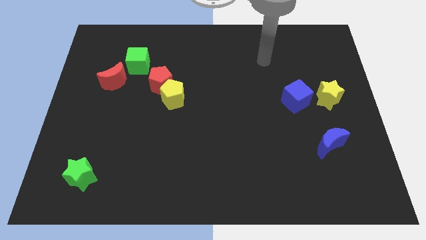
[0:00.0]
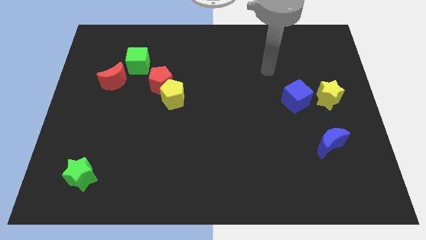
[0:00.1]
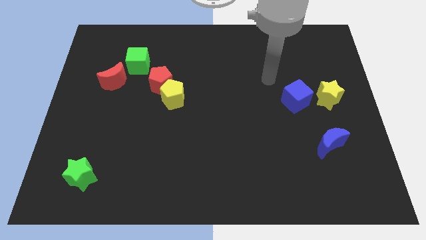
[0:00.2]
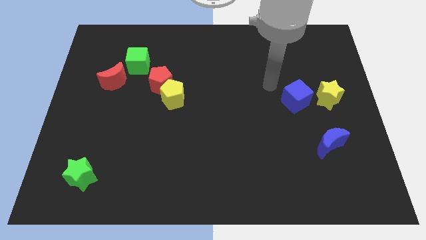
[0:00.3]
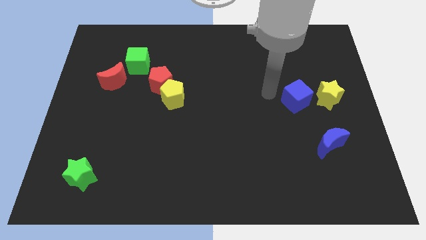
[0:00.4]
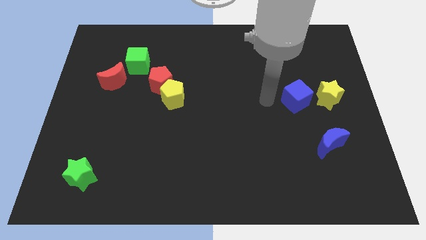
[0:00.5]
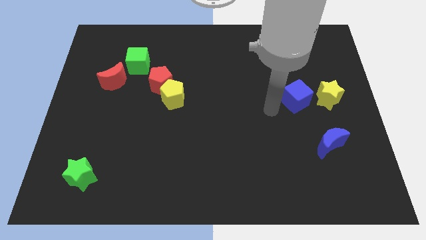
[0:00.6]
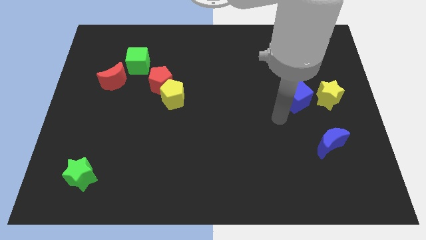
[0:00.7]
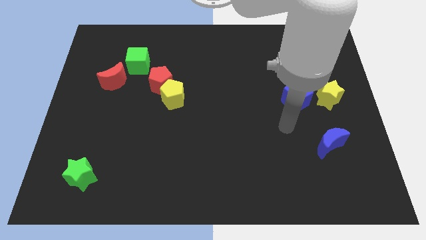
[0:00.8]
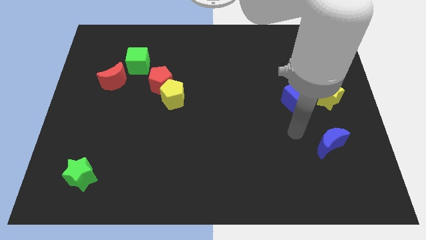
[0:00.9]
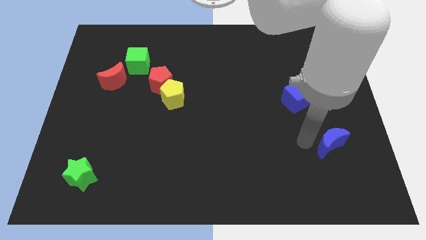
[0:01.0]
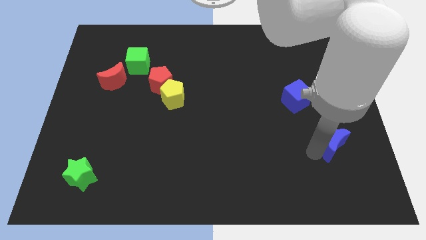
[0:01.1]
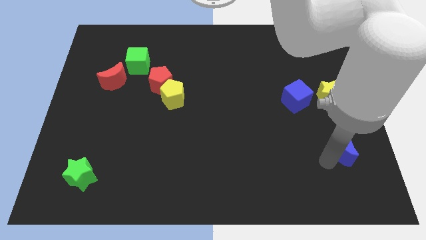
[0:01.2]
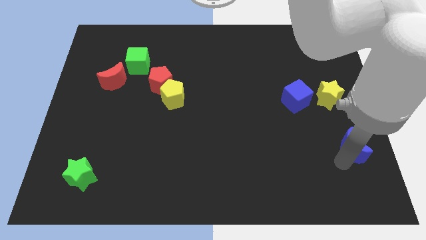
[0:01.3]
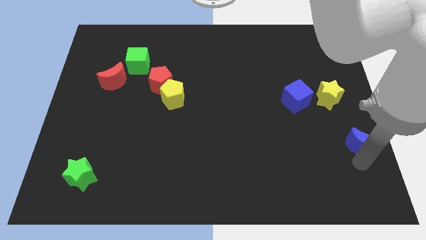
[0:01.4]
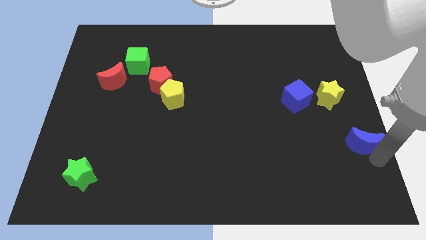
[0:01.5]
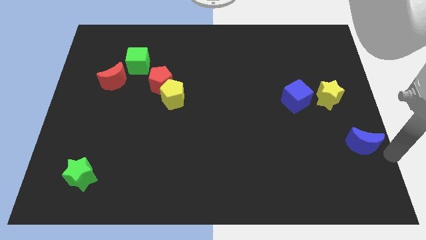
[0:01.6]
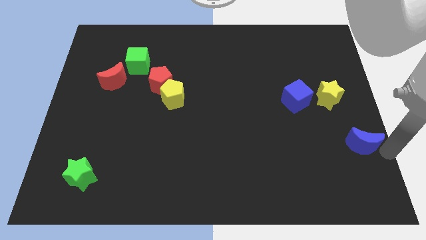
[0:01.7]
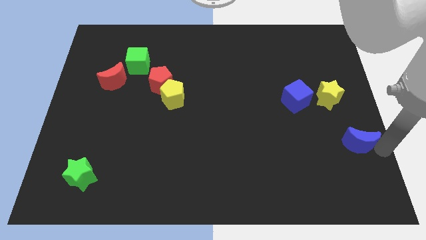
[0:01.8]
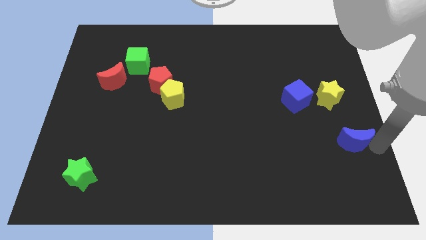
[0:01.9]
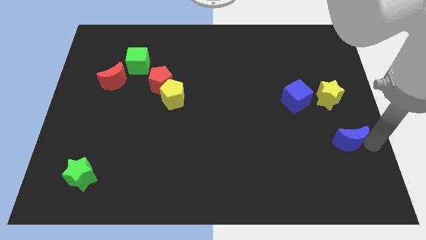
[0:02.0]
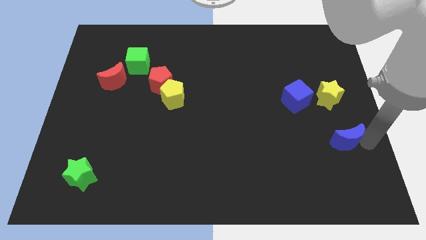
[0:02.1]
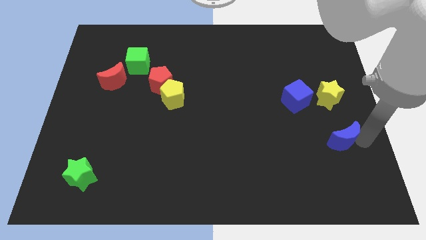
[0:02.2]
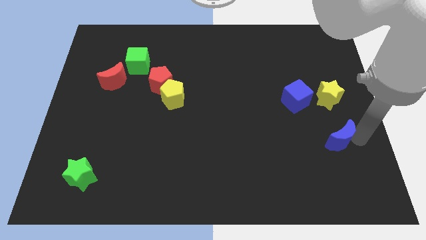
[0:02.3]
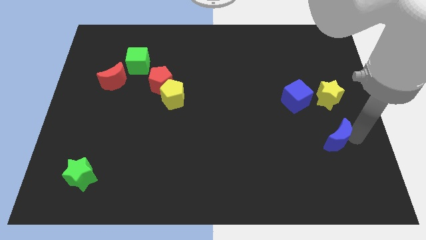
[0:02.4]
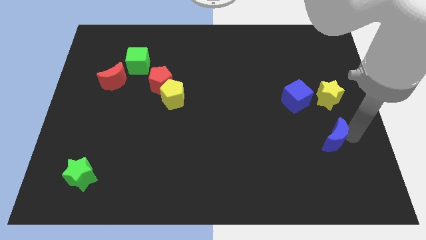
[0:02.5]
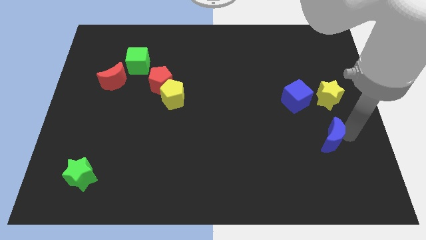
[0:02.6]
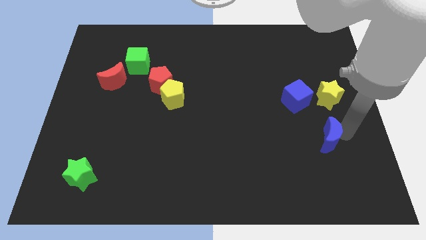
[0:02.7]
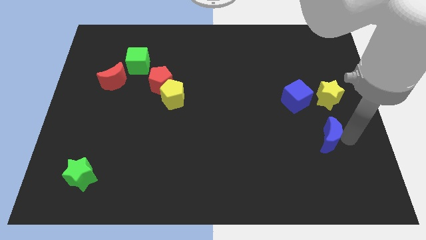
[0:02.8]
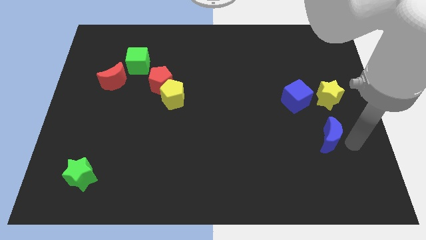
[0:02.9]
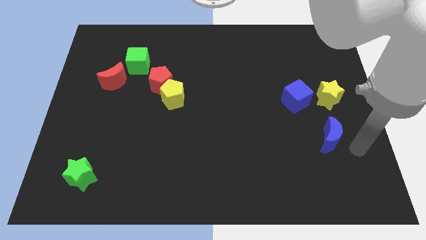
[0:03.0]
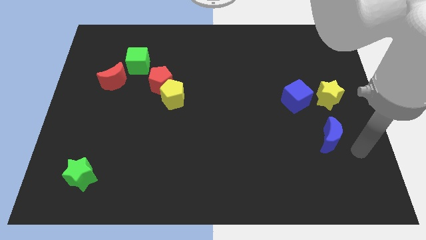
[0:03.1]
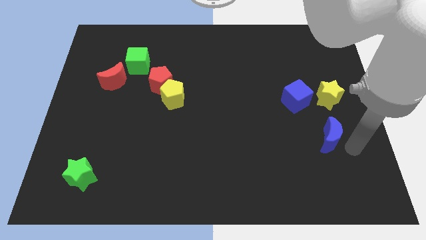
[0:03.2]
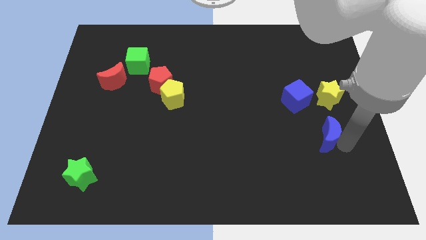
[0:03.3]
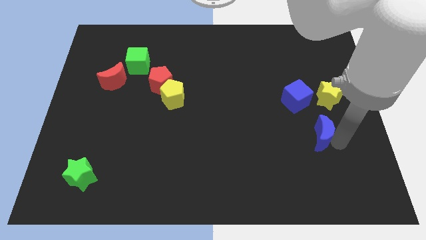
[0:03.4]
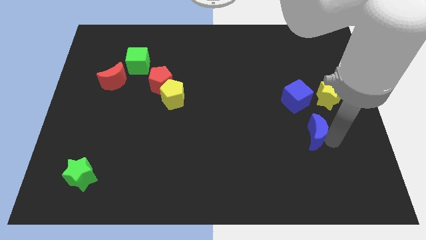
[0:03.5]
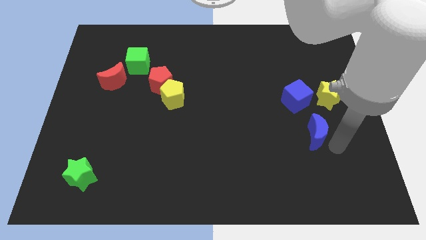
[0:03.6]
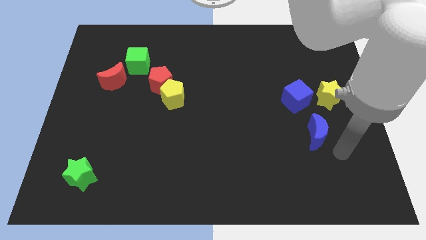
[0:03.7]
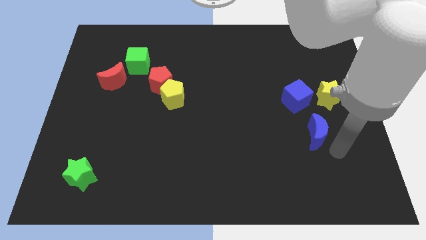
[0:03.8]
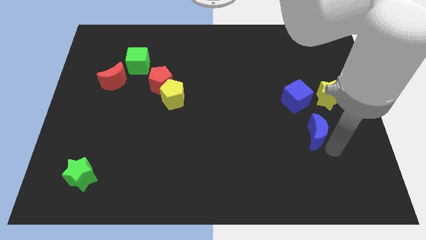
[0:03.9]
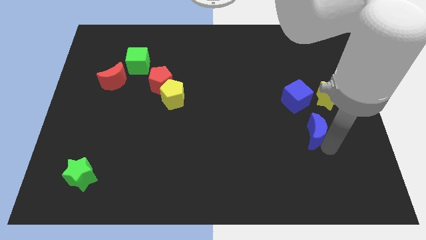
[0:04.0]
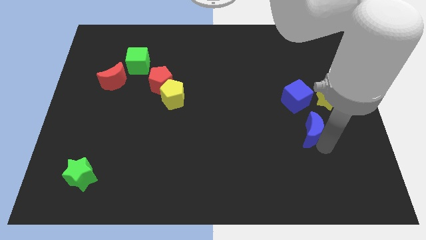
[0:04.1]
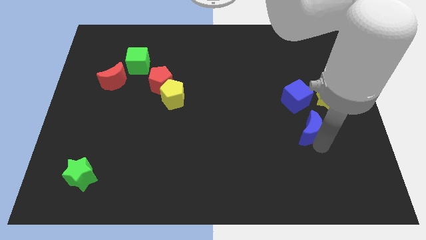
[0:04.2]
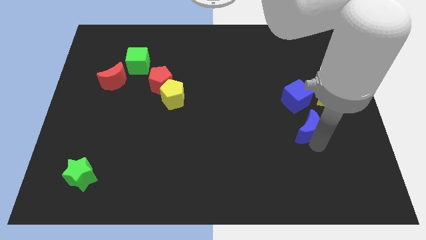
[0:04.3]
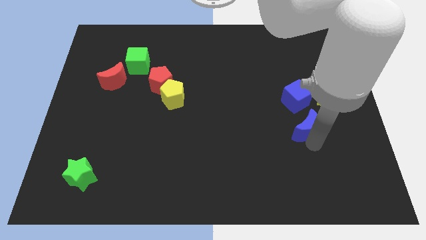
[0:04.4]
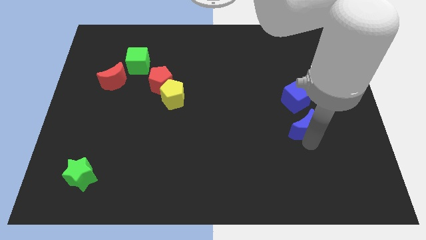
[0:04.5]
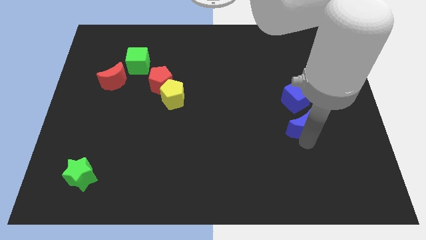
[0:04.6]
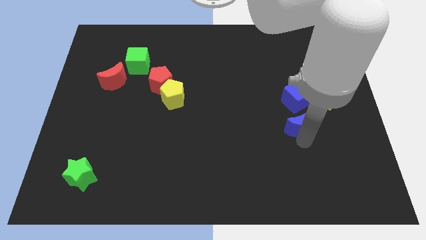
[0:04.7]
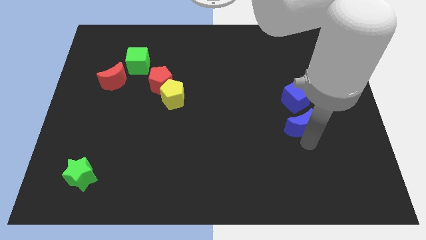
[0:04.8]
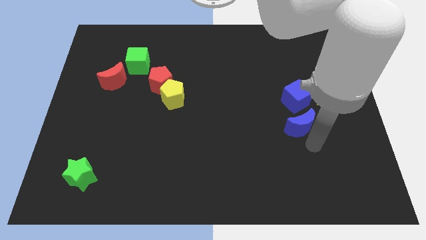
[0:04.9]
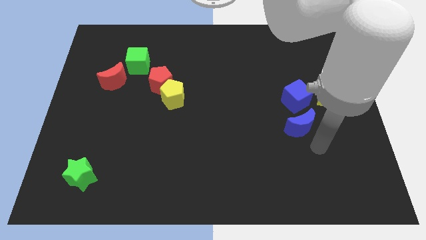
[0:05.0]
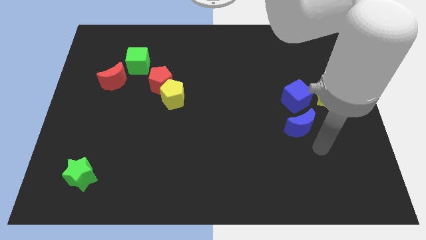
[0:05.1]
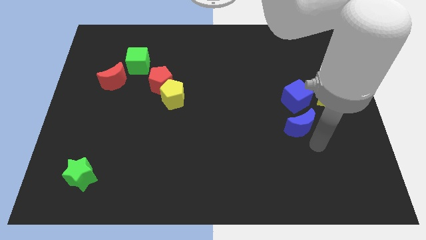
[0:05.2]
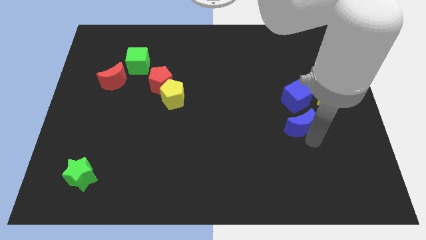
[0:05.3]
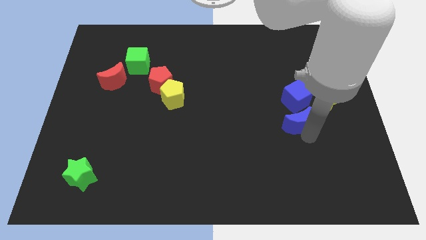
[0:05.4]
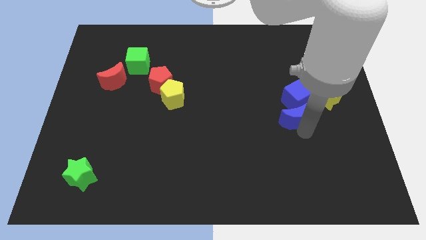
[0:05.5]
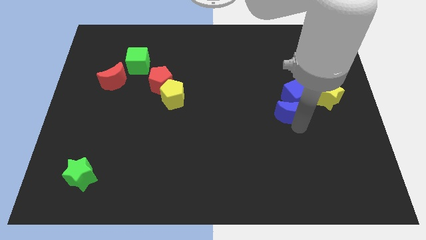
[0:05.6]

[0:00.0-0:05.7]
push the blue moon left of the yellow star

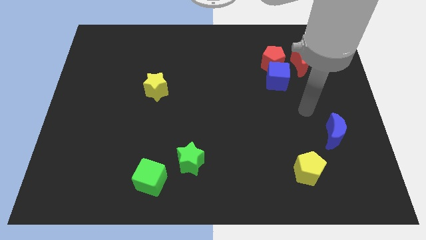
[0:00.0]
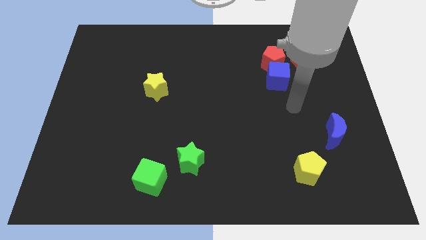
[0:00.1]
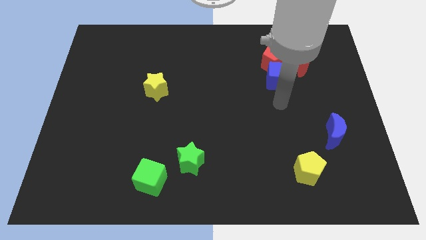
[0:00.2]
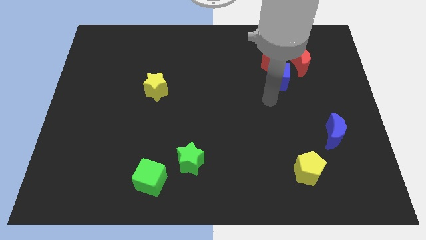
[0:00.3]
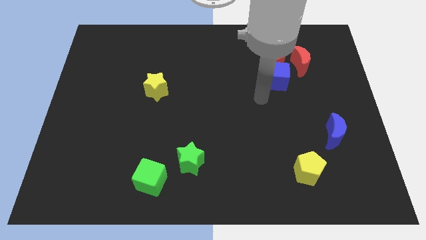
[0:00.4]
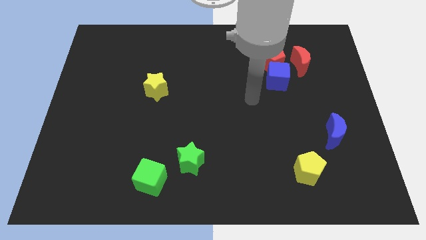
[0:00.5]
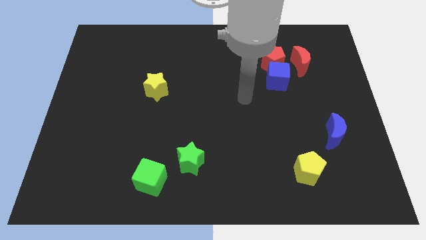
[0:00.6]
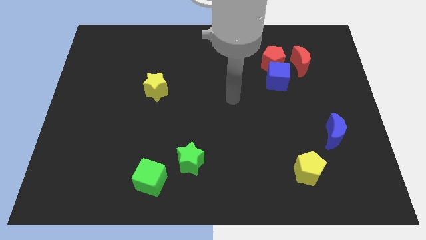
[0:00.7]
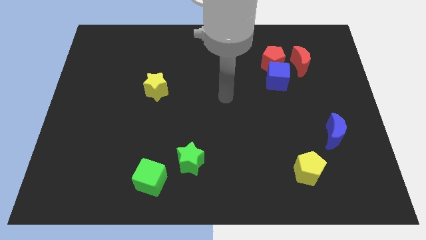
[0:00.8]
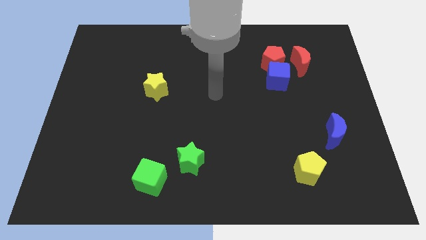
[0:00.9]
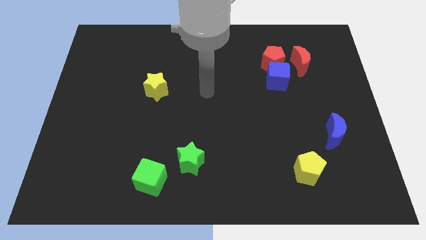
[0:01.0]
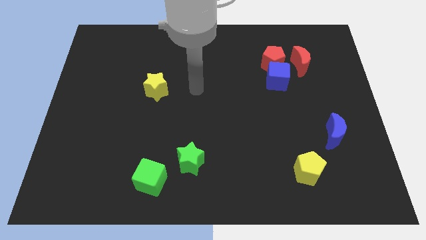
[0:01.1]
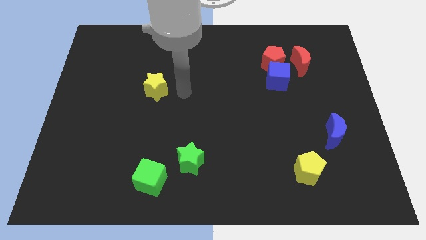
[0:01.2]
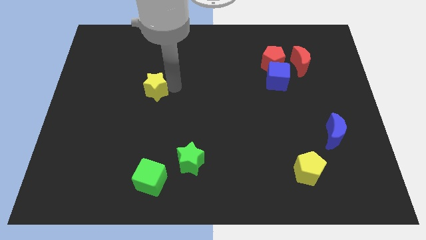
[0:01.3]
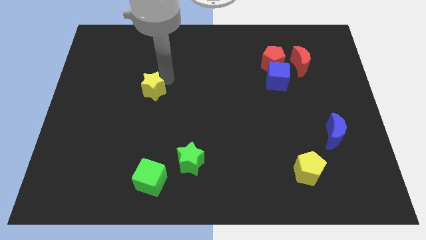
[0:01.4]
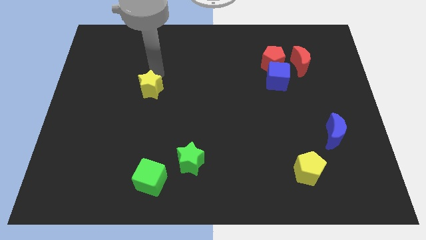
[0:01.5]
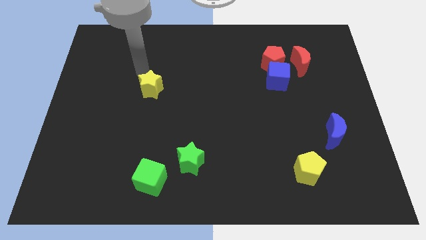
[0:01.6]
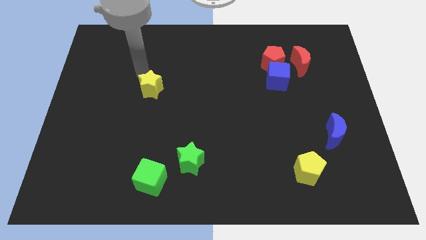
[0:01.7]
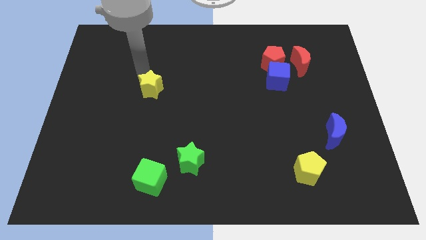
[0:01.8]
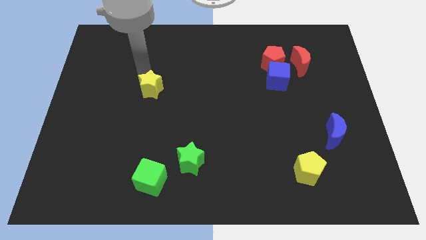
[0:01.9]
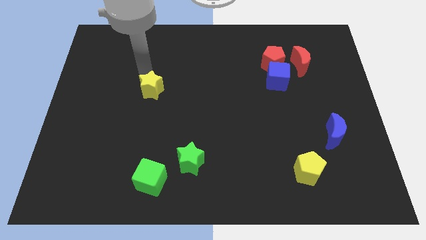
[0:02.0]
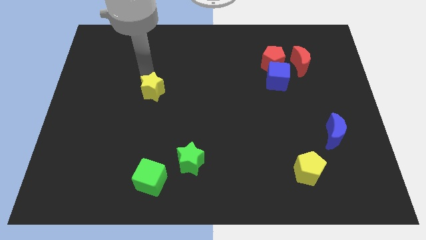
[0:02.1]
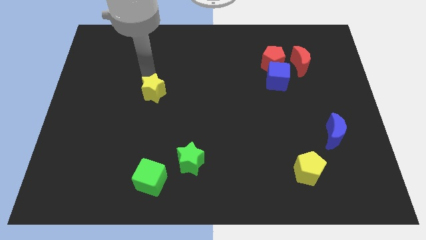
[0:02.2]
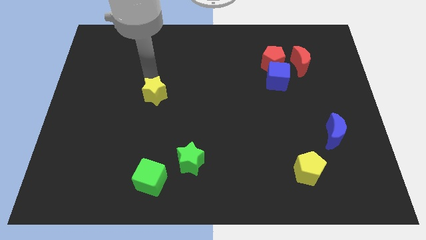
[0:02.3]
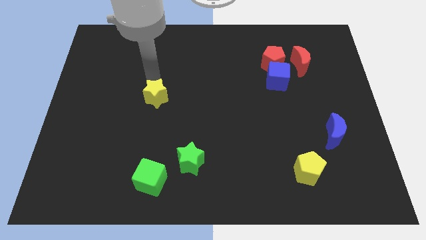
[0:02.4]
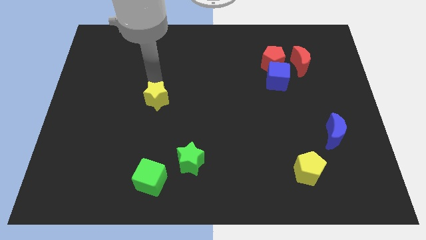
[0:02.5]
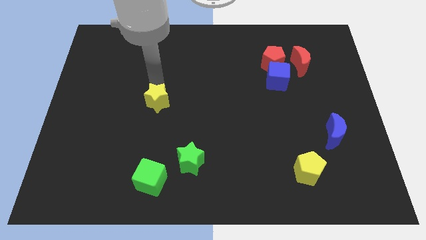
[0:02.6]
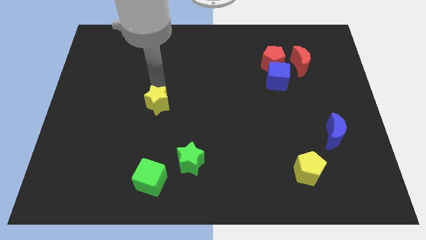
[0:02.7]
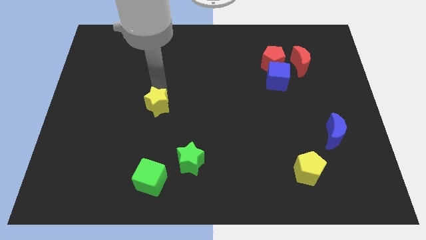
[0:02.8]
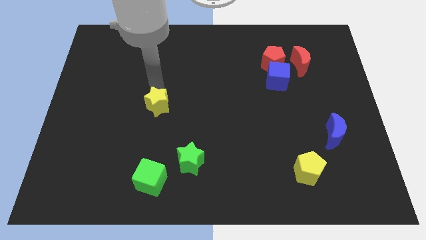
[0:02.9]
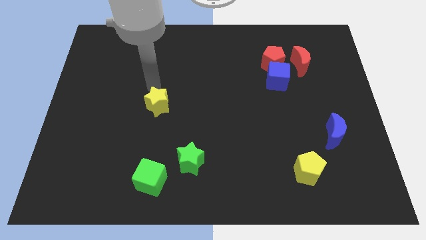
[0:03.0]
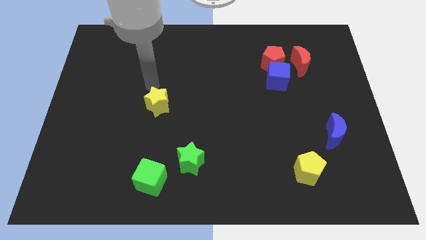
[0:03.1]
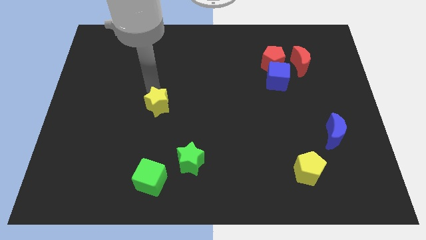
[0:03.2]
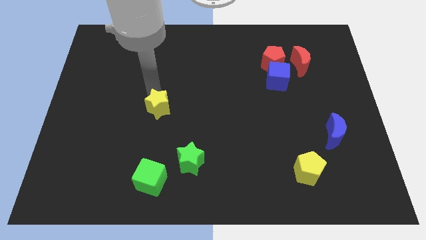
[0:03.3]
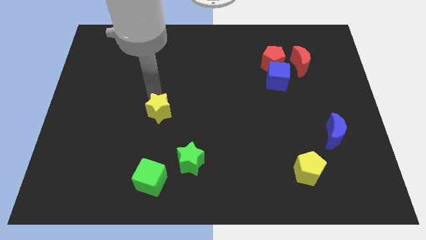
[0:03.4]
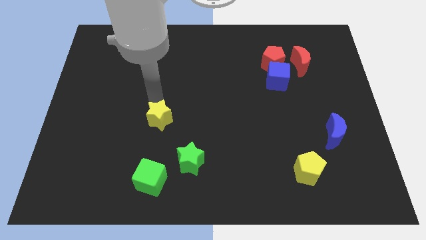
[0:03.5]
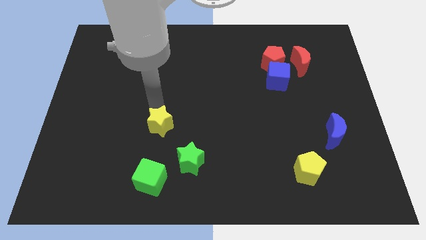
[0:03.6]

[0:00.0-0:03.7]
move the yellow star diagonally up and to the left of the green star
